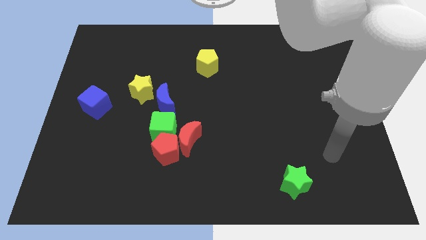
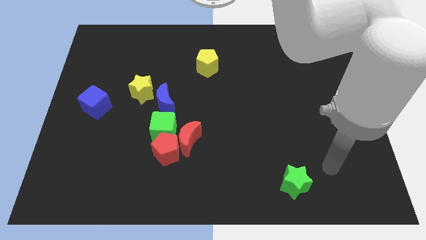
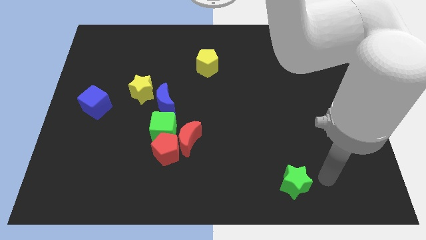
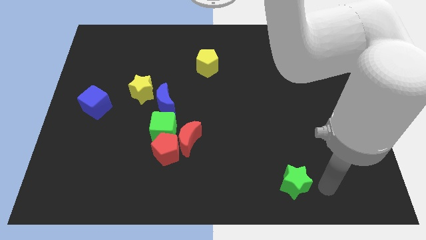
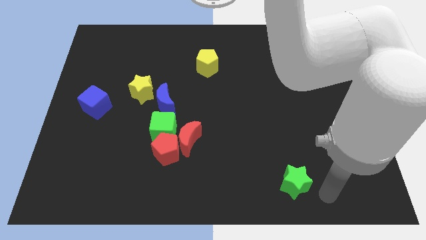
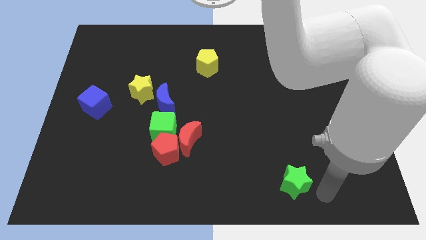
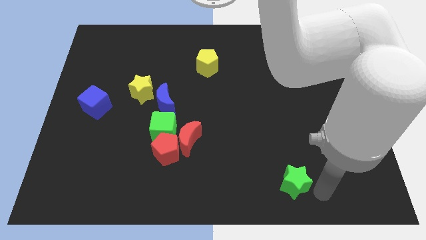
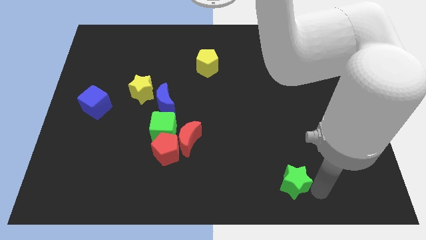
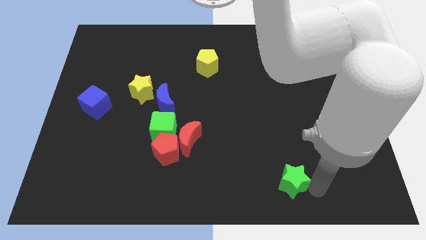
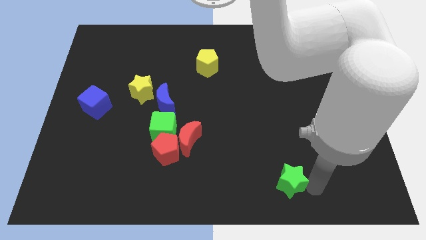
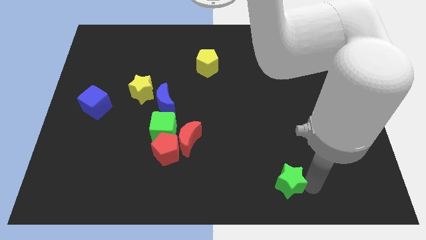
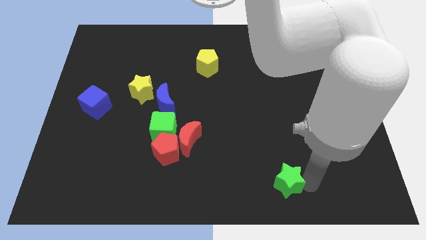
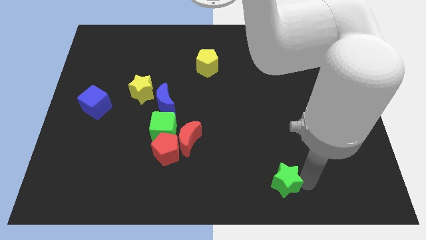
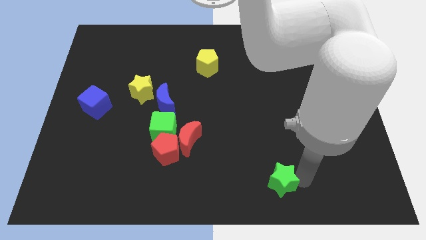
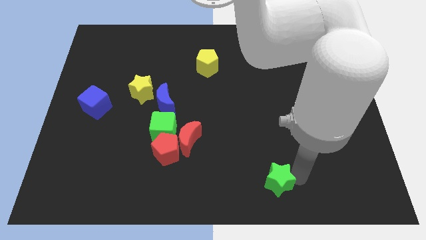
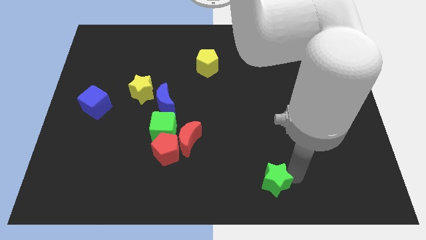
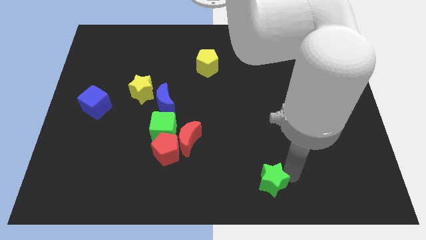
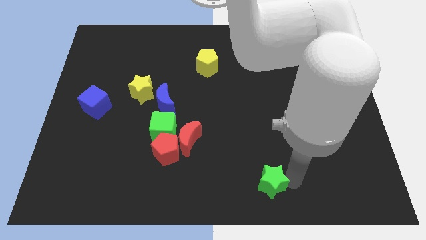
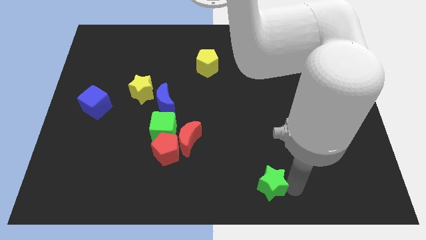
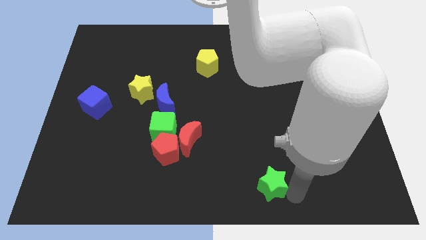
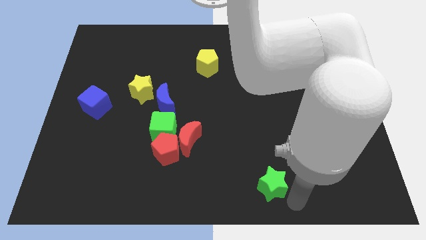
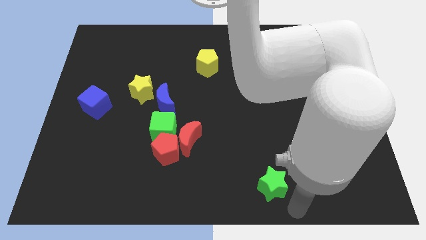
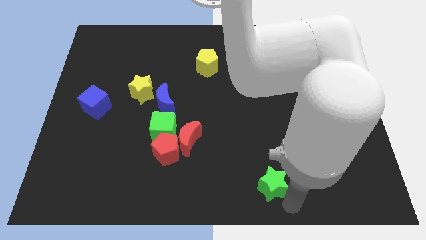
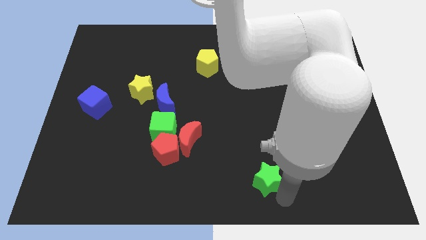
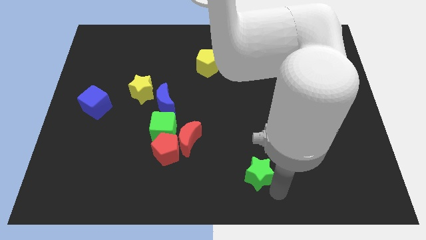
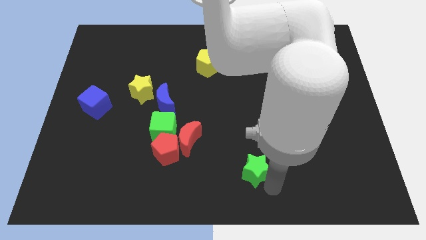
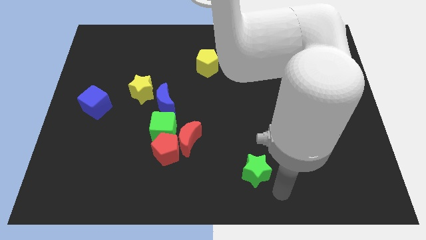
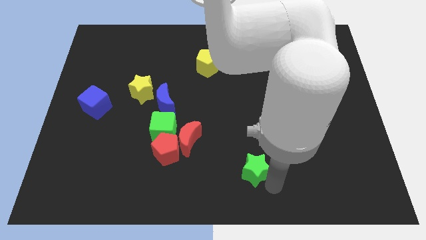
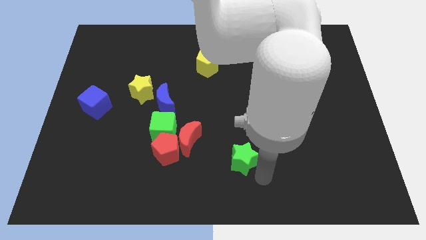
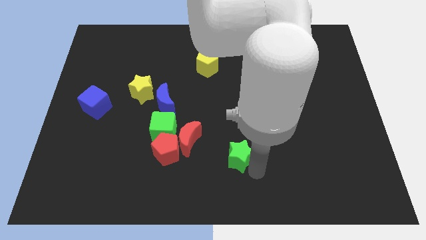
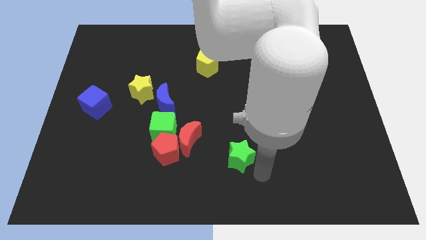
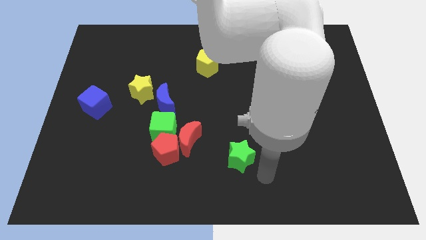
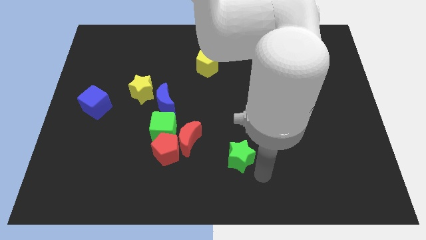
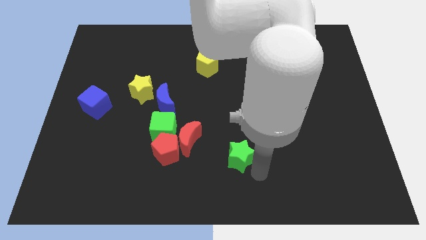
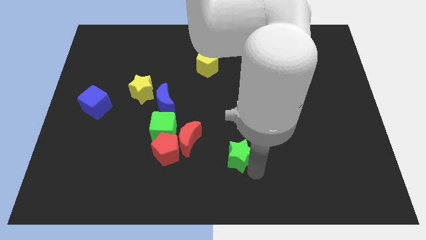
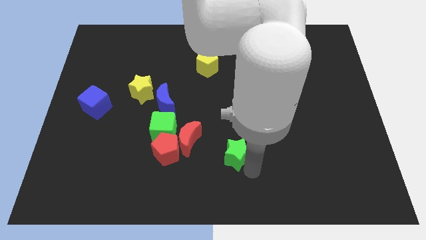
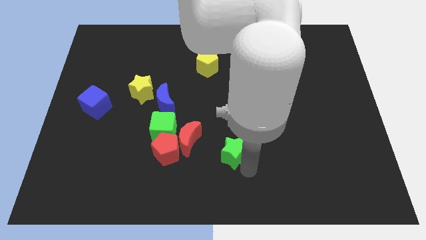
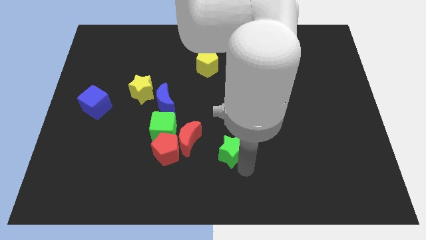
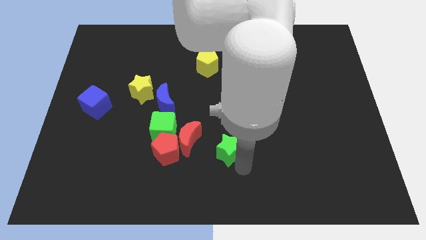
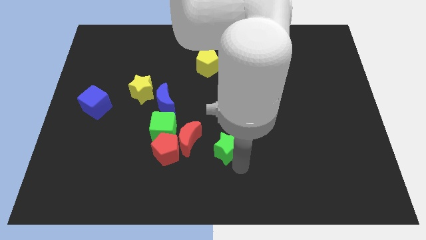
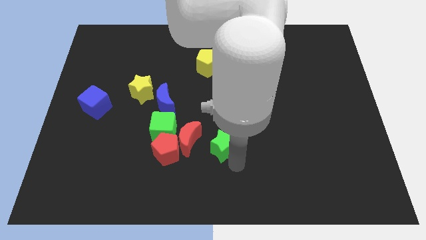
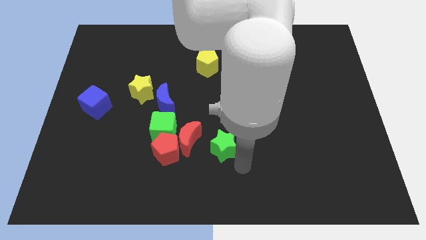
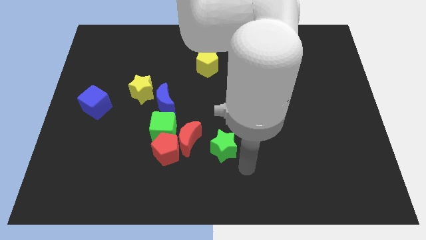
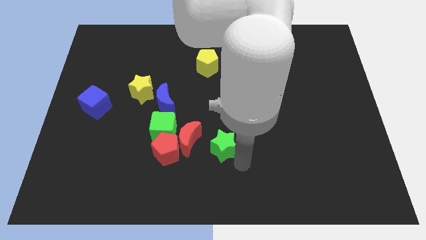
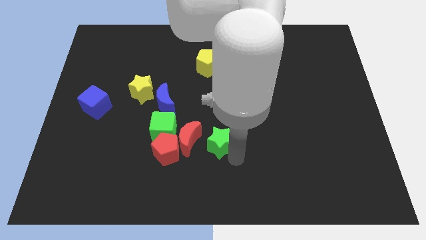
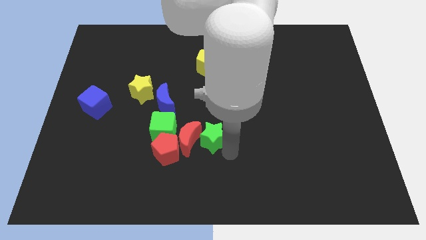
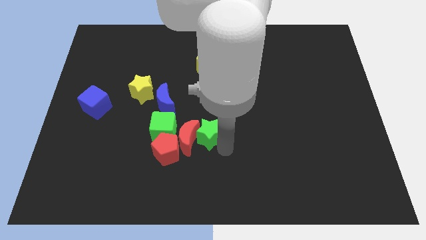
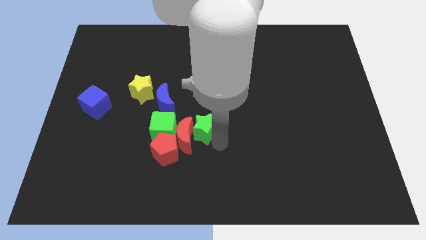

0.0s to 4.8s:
move the green star to the bottom right of the blue moon

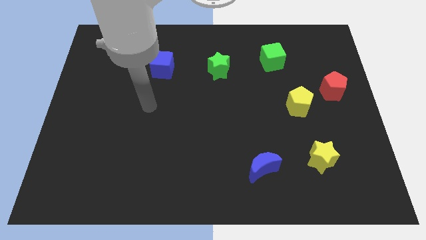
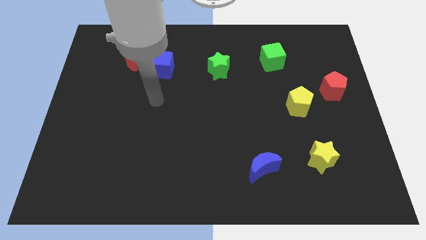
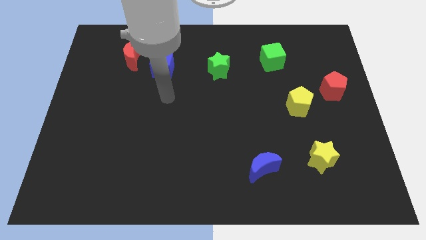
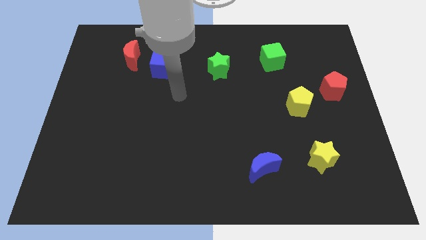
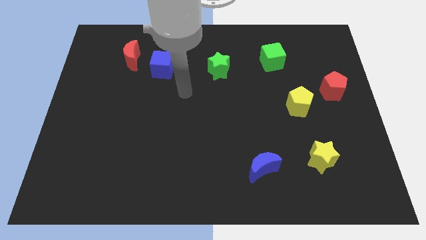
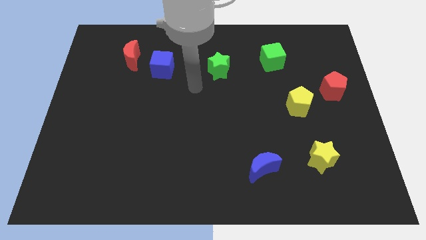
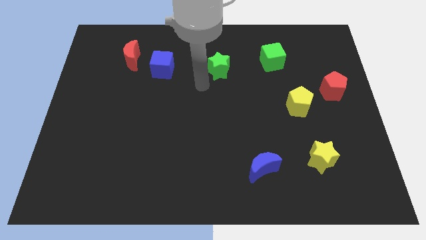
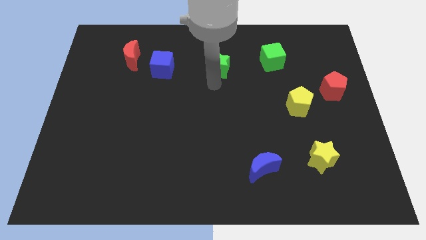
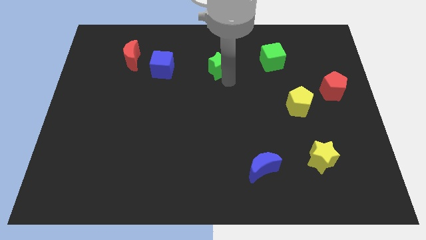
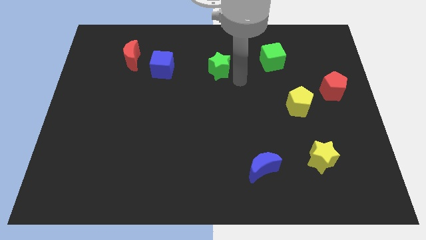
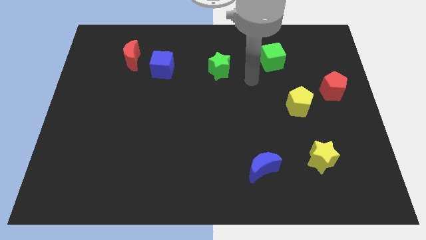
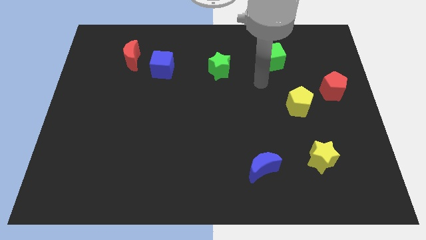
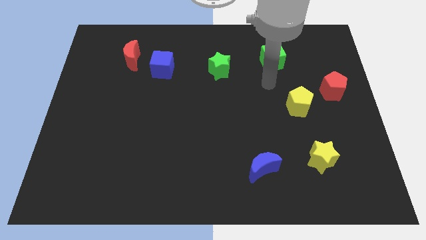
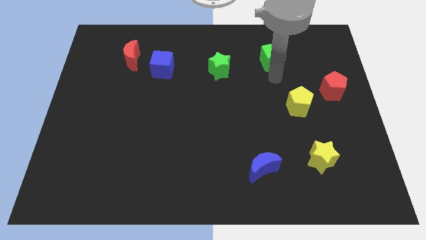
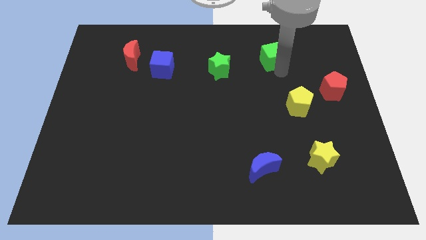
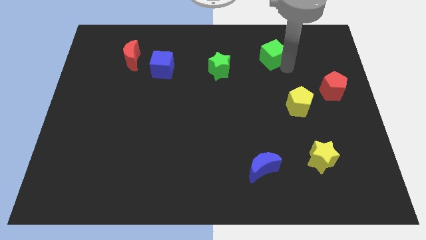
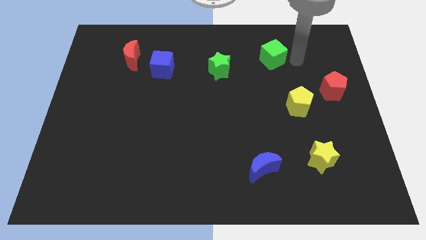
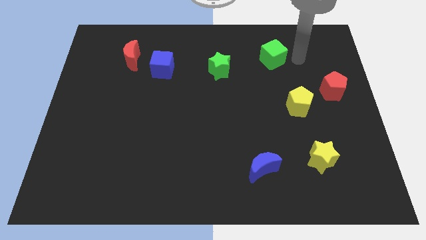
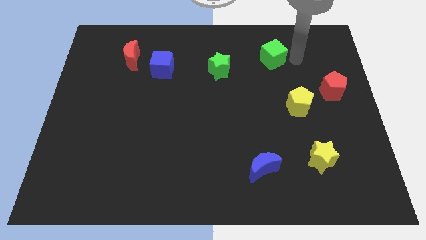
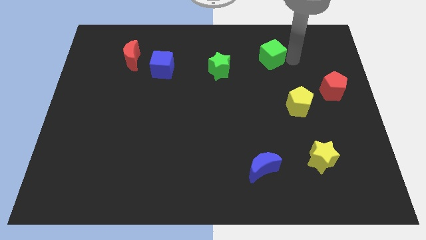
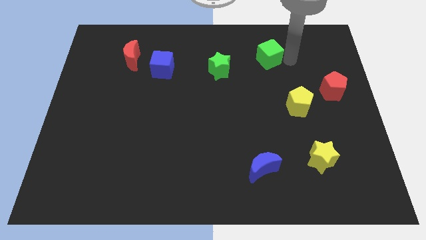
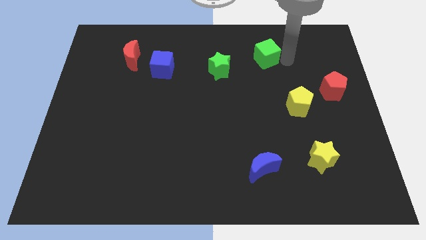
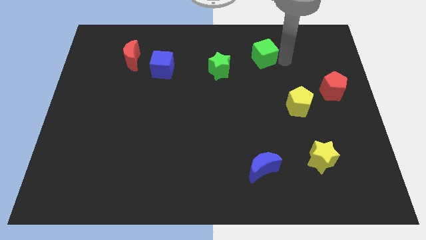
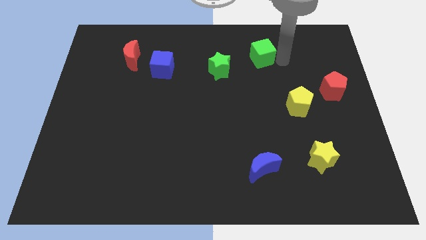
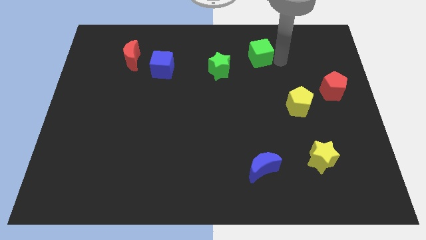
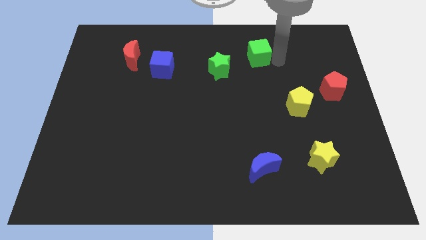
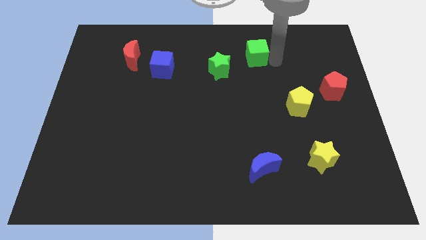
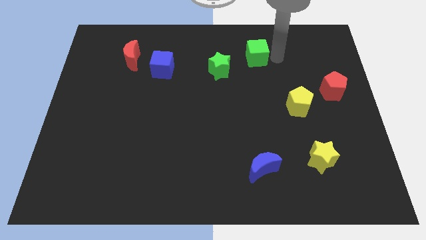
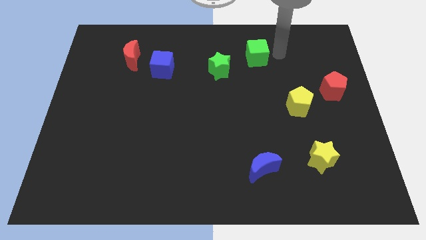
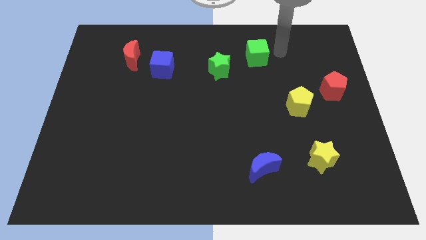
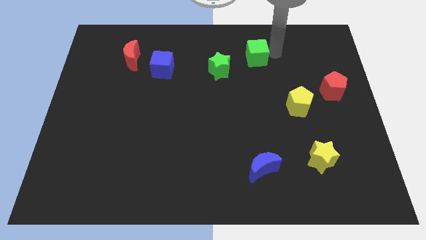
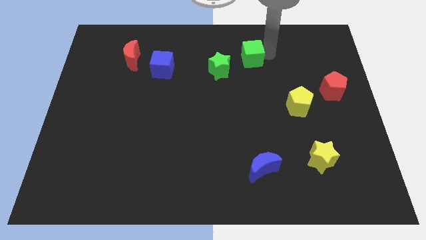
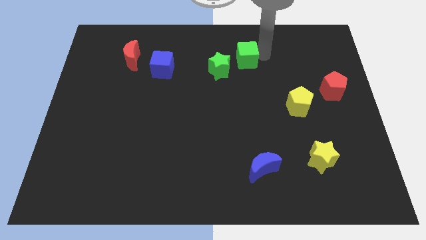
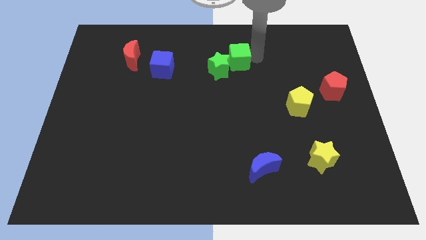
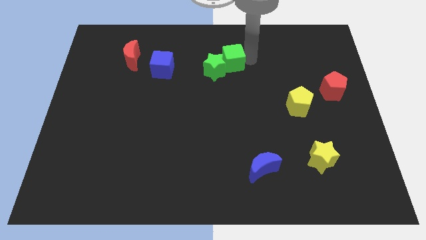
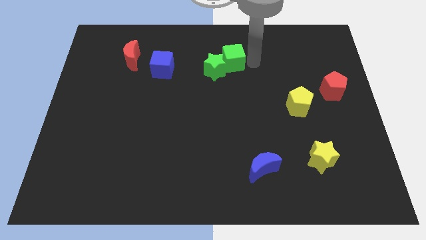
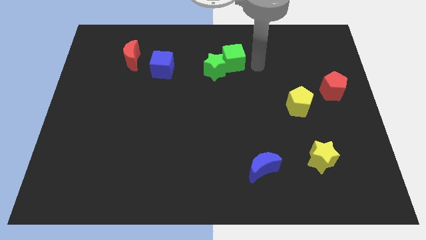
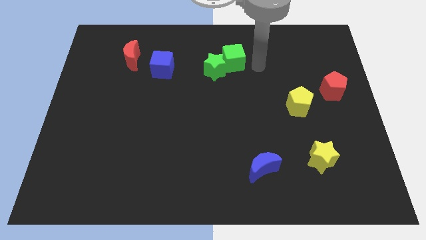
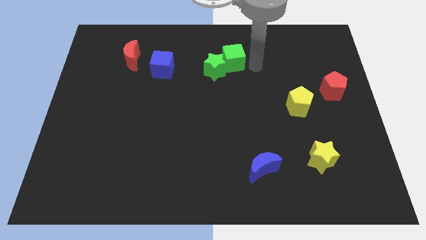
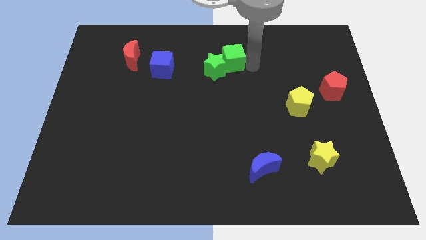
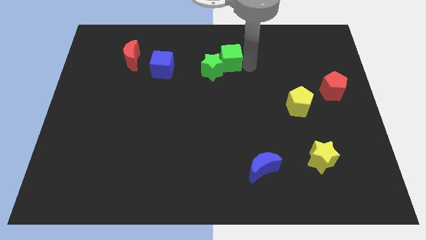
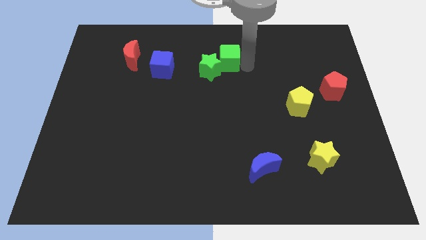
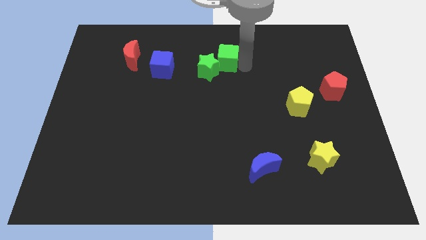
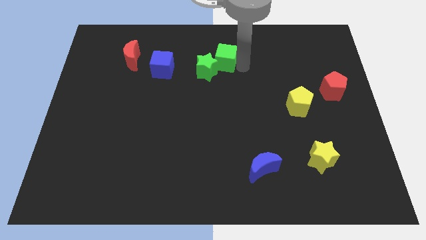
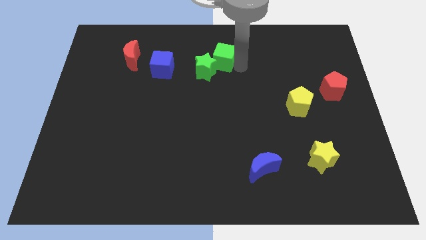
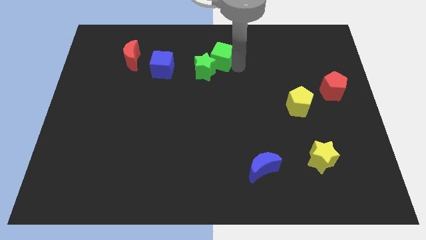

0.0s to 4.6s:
put the green cube to the right of the blue cube
